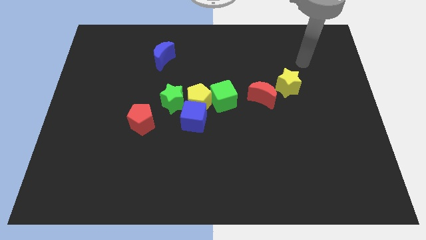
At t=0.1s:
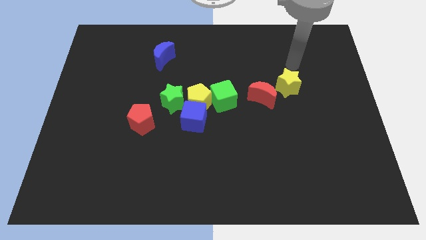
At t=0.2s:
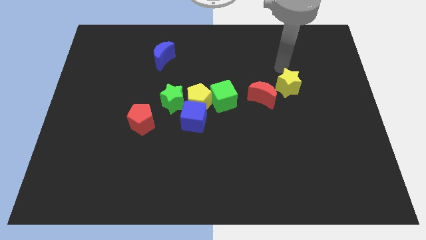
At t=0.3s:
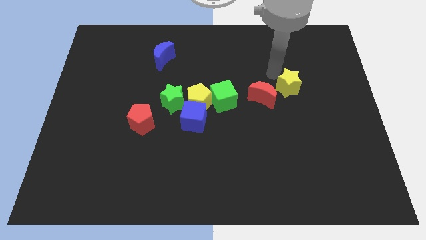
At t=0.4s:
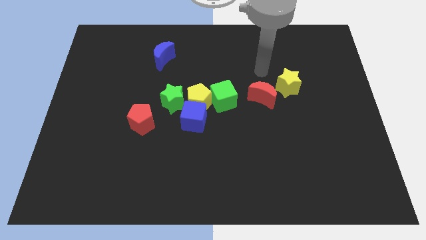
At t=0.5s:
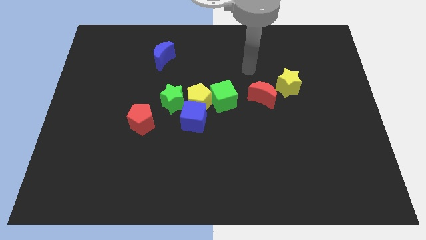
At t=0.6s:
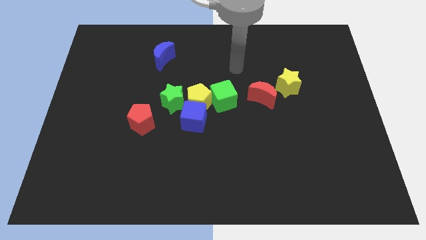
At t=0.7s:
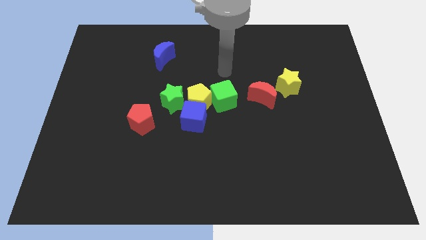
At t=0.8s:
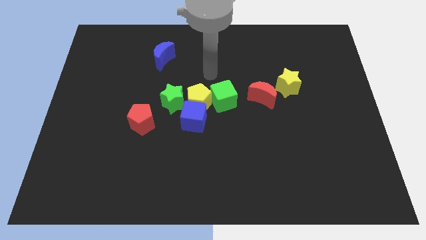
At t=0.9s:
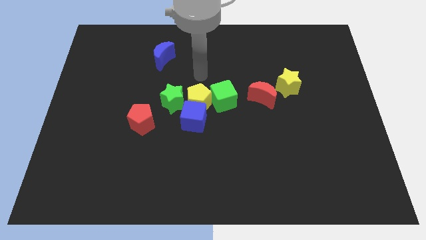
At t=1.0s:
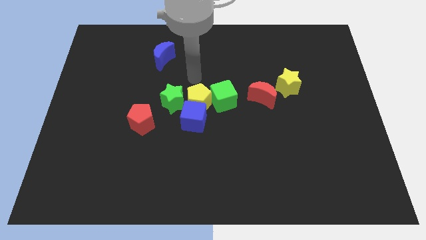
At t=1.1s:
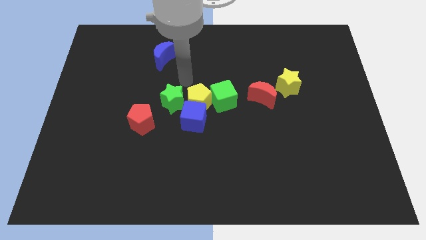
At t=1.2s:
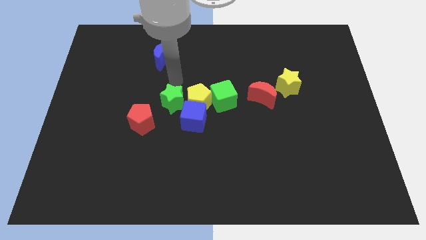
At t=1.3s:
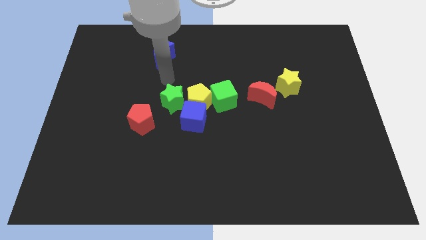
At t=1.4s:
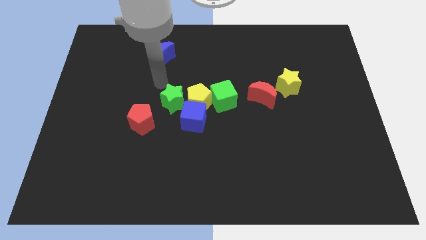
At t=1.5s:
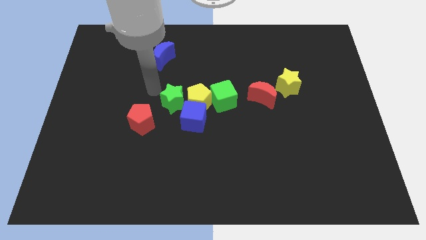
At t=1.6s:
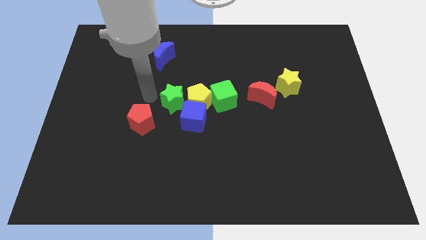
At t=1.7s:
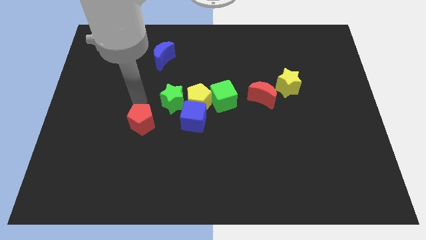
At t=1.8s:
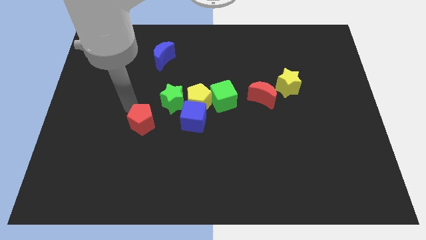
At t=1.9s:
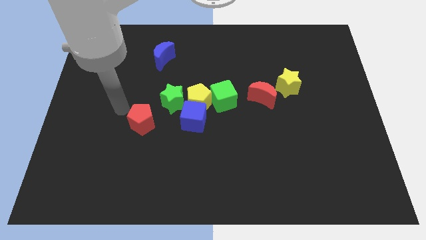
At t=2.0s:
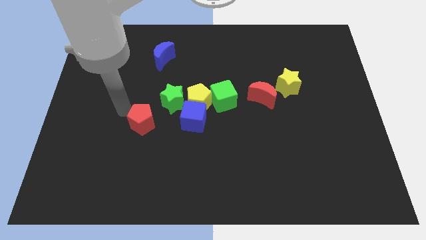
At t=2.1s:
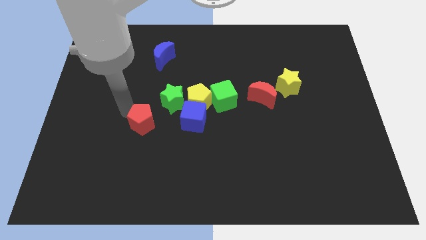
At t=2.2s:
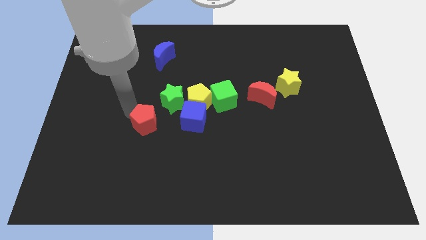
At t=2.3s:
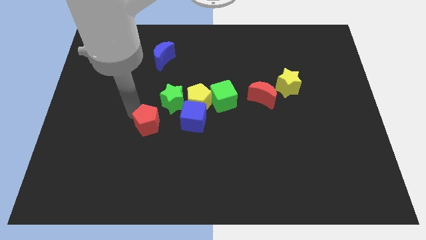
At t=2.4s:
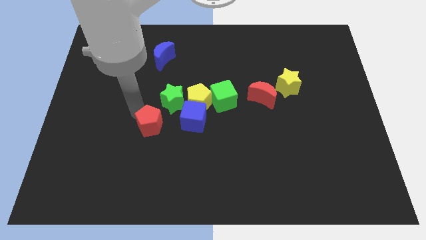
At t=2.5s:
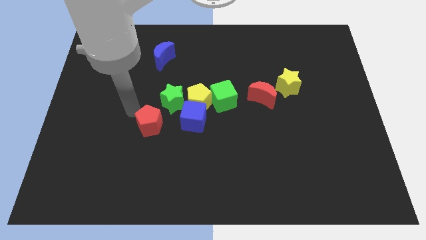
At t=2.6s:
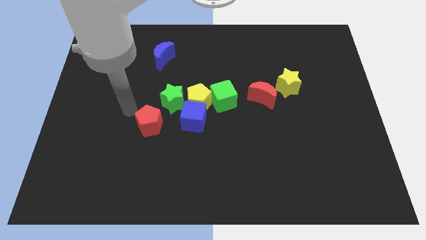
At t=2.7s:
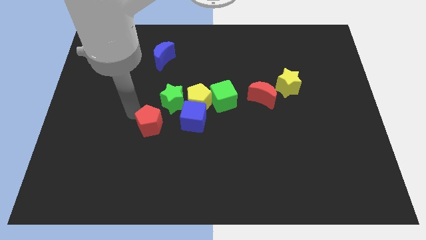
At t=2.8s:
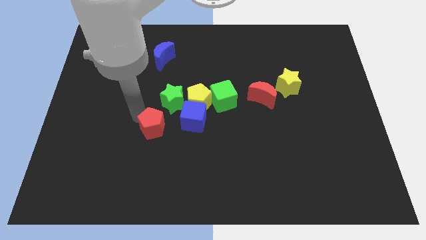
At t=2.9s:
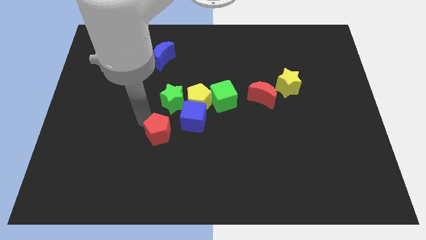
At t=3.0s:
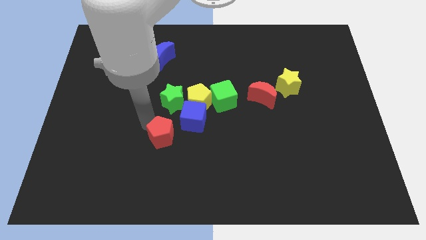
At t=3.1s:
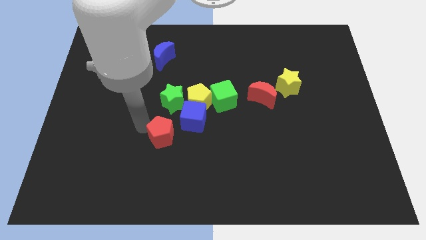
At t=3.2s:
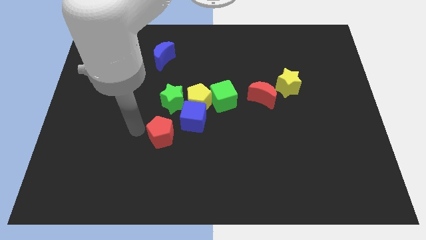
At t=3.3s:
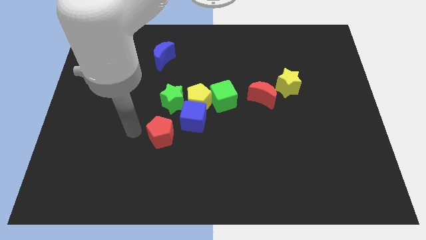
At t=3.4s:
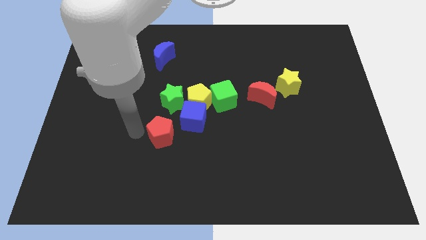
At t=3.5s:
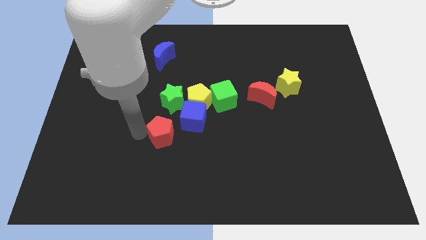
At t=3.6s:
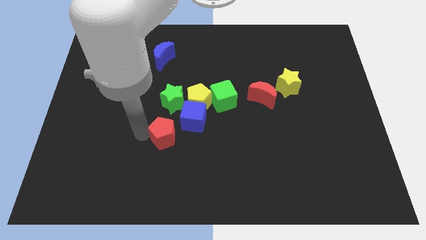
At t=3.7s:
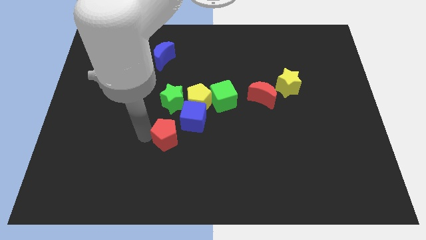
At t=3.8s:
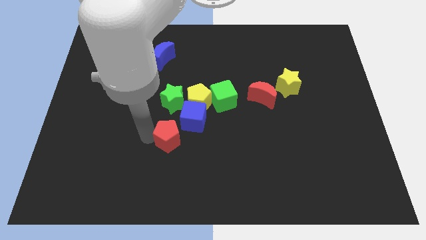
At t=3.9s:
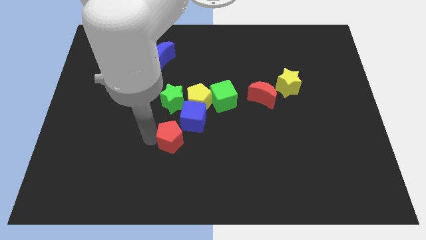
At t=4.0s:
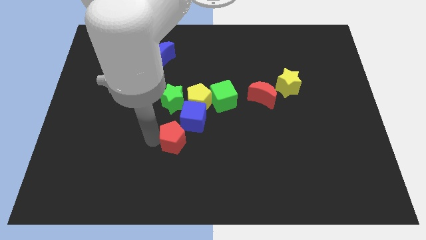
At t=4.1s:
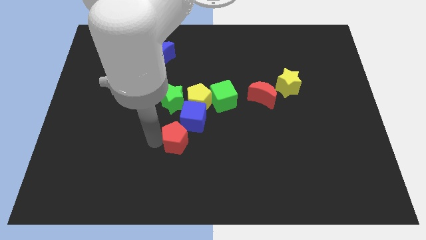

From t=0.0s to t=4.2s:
push the red pentagon somewhat right

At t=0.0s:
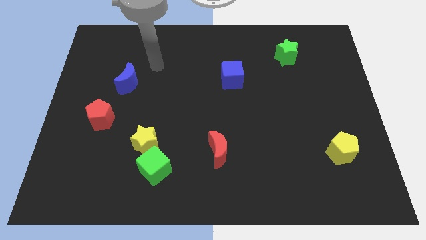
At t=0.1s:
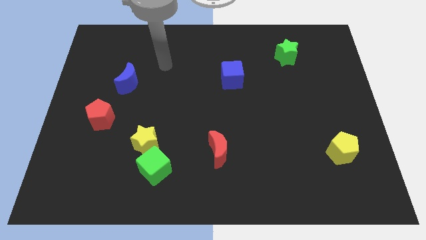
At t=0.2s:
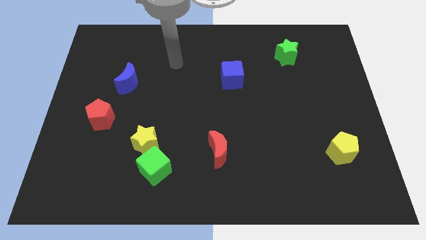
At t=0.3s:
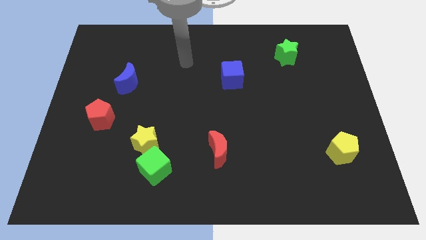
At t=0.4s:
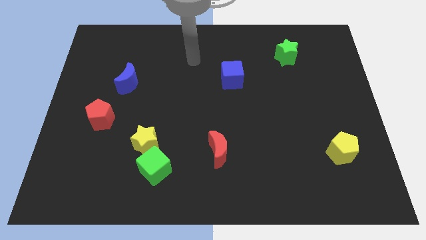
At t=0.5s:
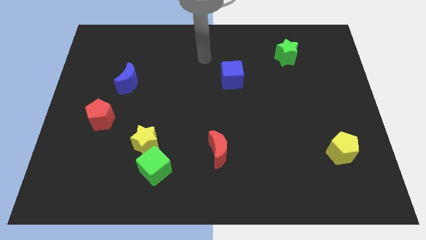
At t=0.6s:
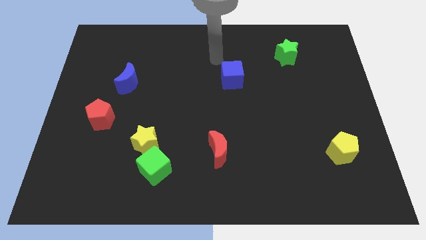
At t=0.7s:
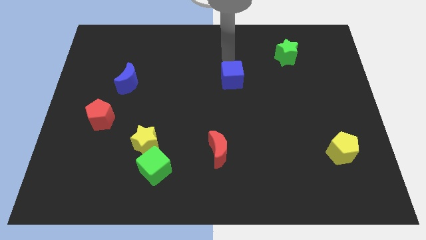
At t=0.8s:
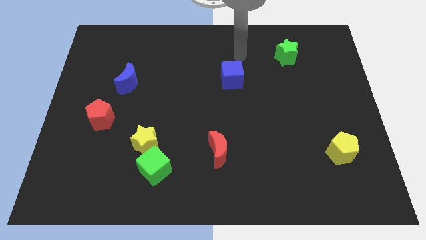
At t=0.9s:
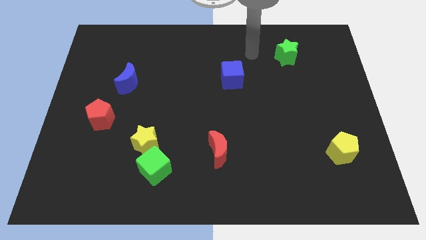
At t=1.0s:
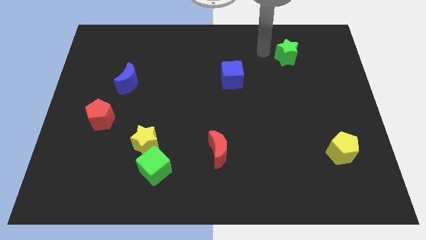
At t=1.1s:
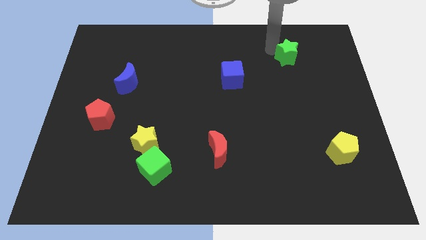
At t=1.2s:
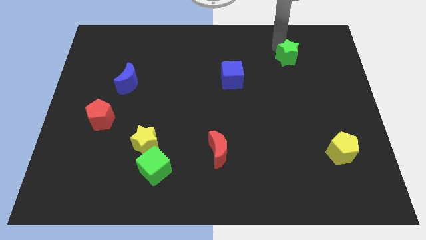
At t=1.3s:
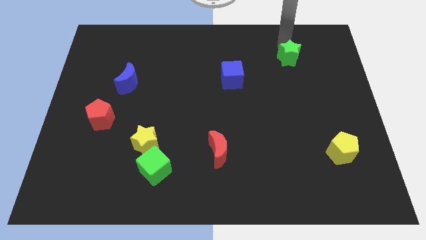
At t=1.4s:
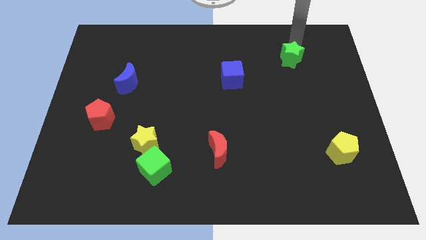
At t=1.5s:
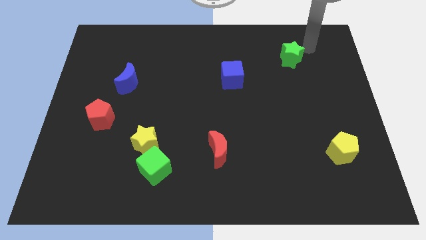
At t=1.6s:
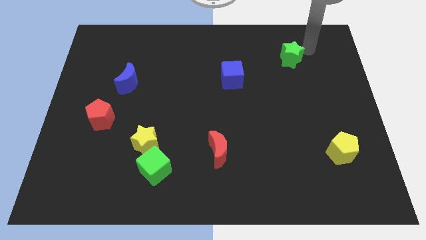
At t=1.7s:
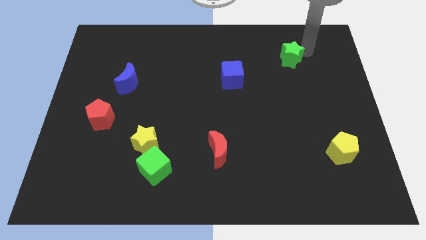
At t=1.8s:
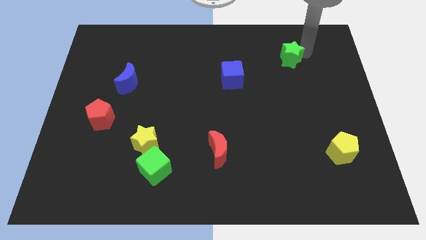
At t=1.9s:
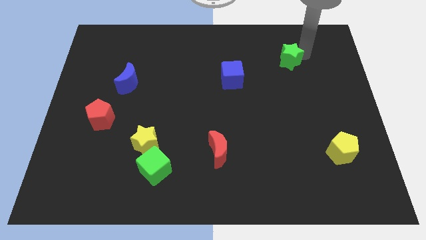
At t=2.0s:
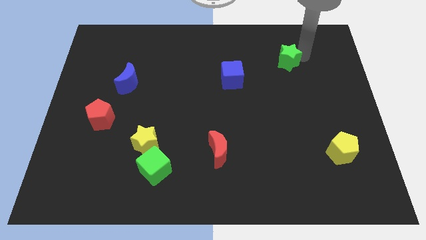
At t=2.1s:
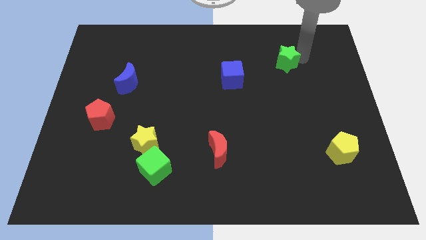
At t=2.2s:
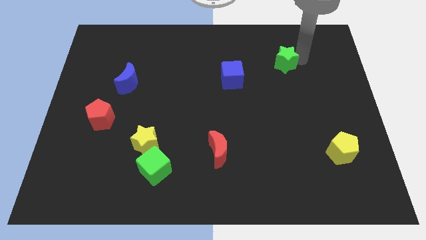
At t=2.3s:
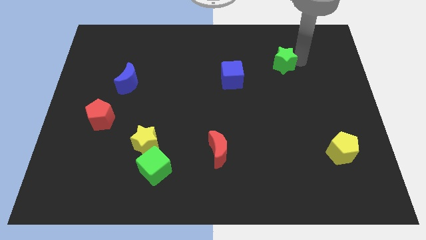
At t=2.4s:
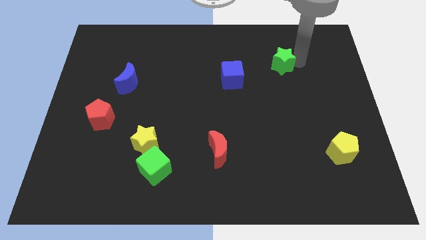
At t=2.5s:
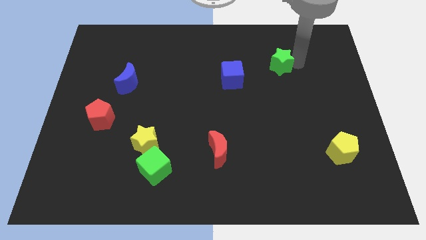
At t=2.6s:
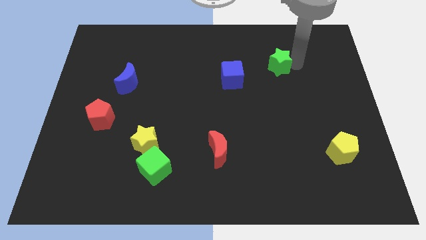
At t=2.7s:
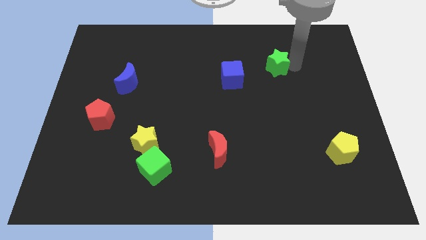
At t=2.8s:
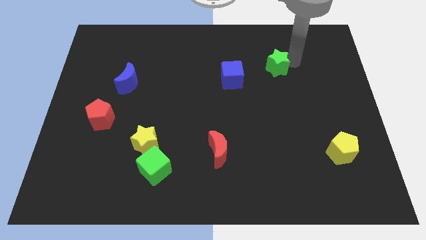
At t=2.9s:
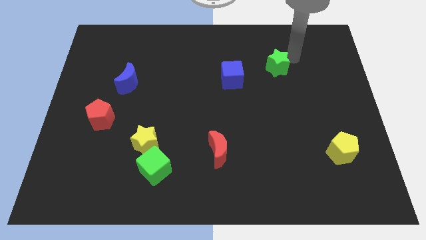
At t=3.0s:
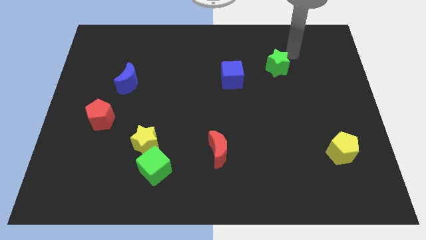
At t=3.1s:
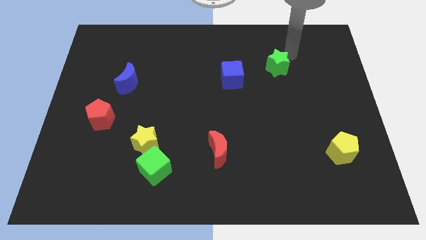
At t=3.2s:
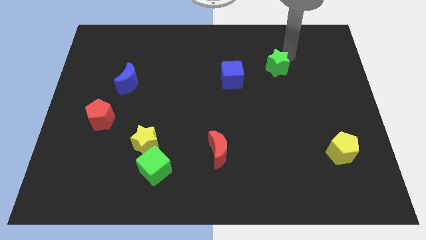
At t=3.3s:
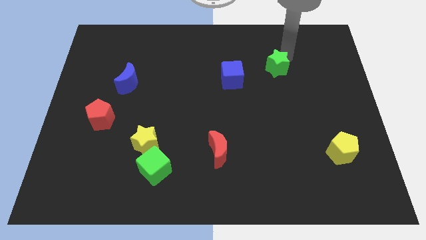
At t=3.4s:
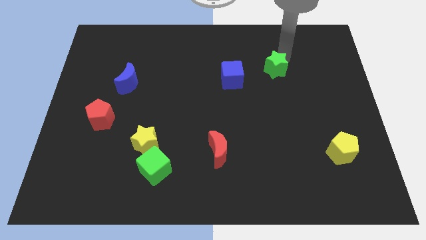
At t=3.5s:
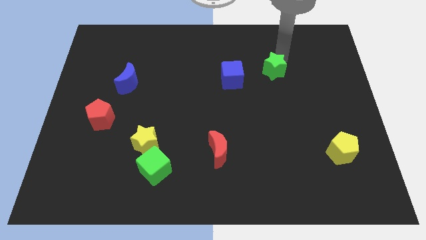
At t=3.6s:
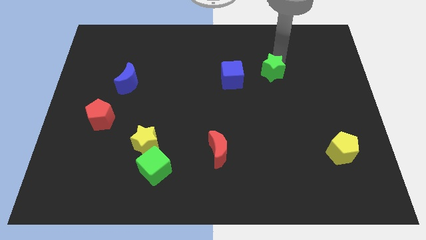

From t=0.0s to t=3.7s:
move the green star down and then to the left a little
